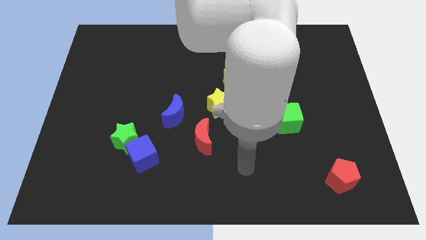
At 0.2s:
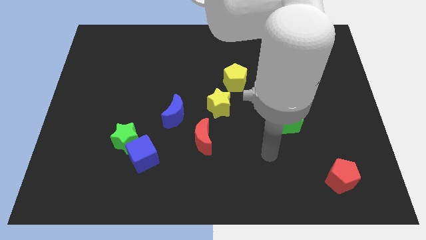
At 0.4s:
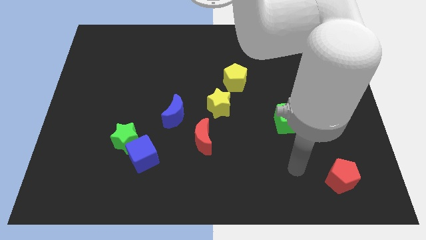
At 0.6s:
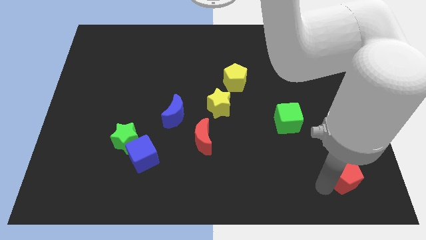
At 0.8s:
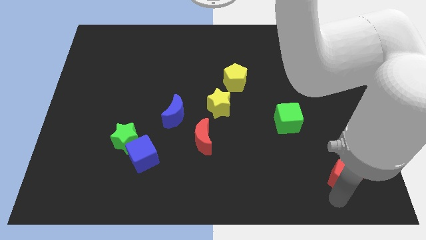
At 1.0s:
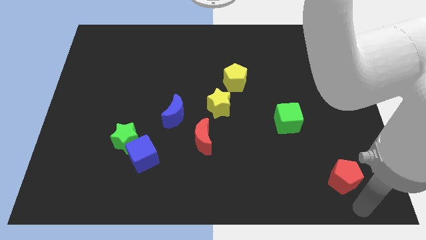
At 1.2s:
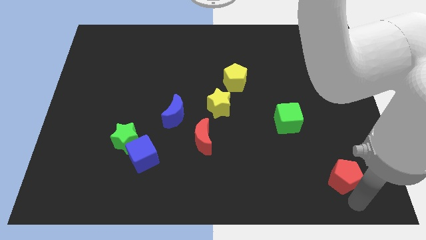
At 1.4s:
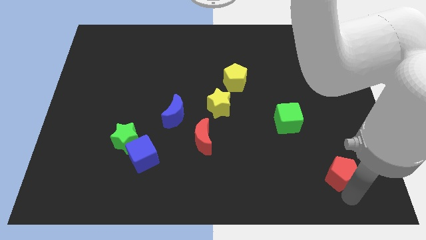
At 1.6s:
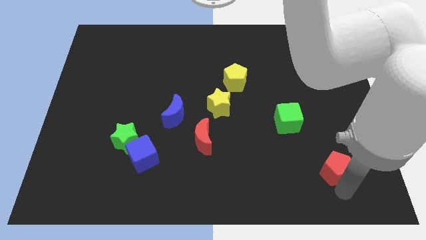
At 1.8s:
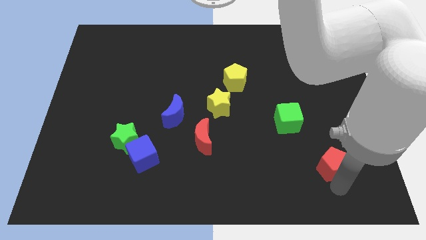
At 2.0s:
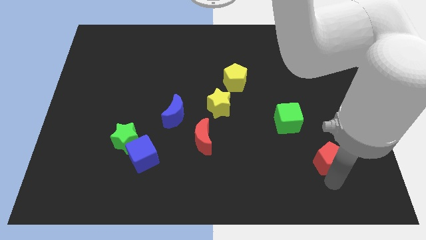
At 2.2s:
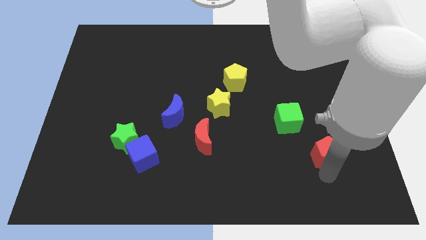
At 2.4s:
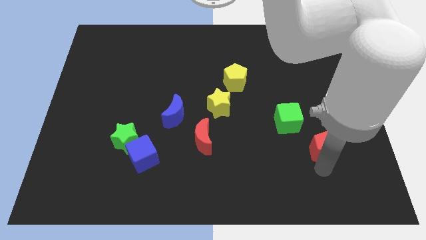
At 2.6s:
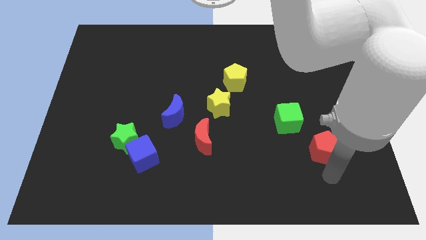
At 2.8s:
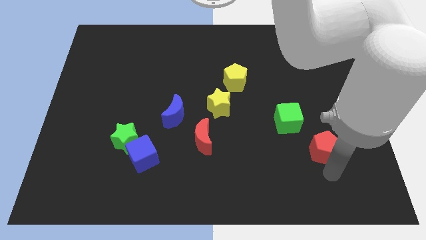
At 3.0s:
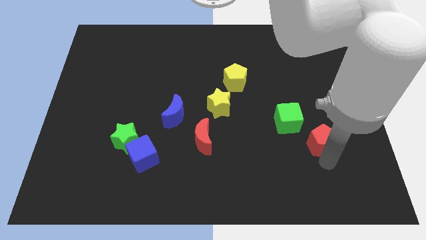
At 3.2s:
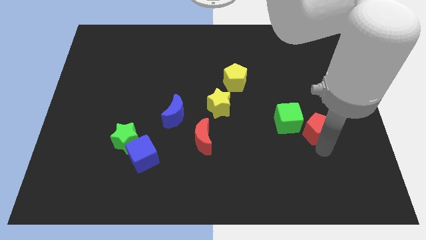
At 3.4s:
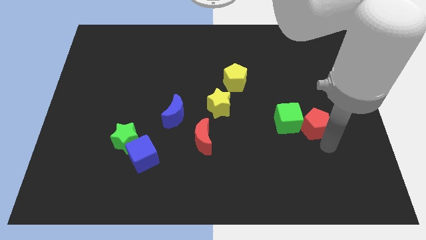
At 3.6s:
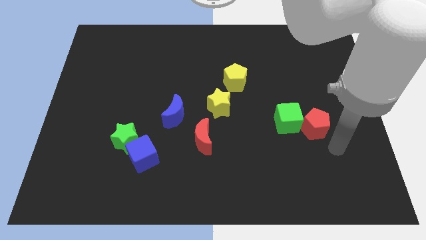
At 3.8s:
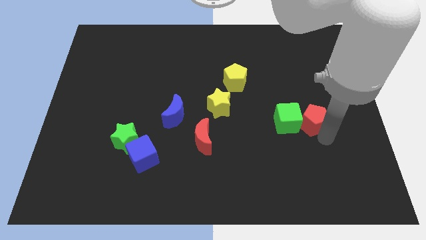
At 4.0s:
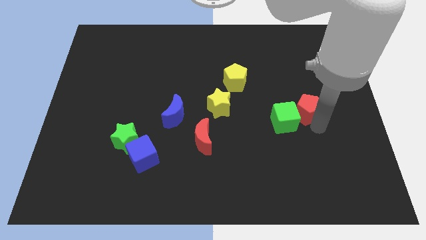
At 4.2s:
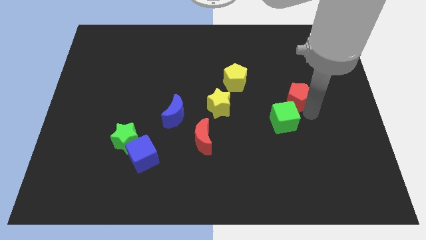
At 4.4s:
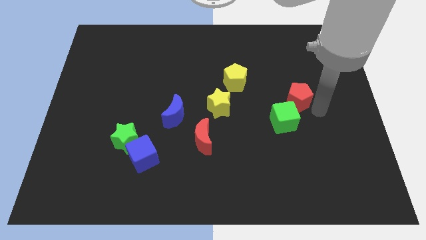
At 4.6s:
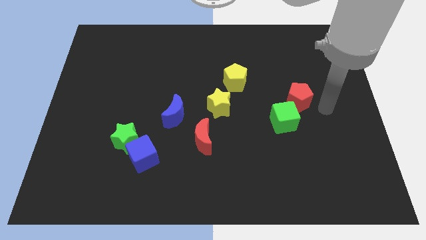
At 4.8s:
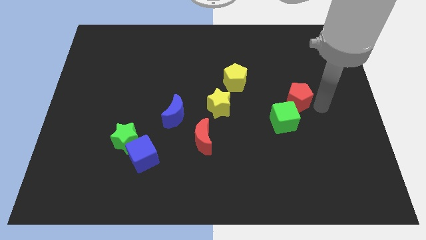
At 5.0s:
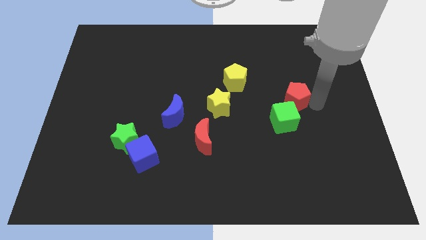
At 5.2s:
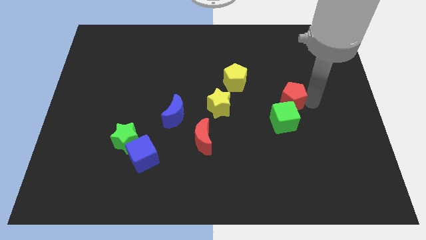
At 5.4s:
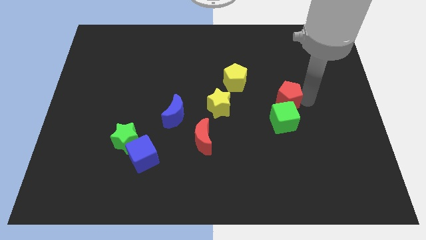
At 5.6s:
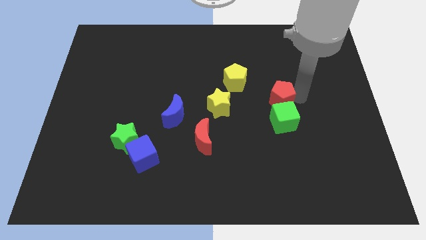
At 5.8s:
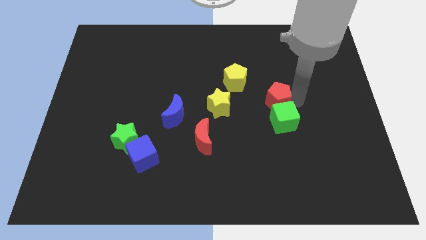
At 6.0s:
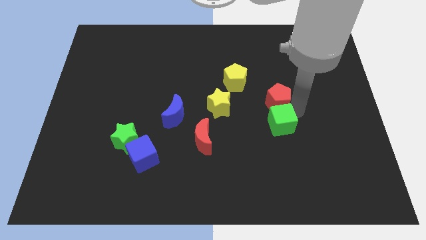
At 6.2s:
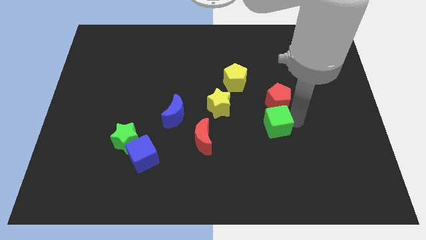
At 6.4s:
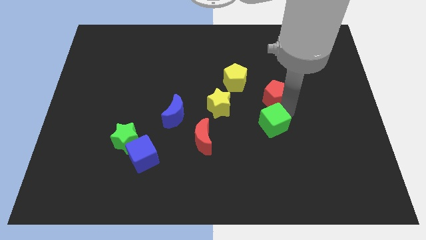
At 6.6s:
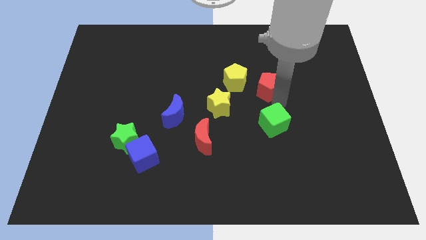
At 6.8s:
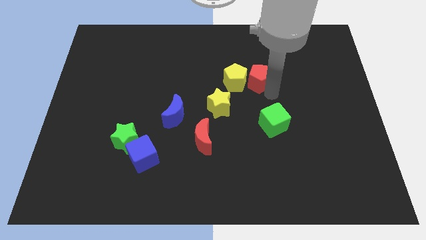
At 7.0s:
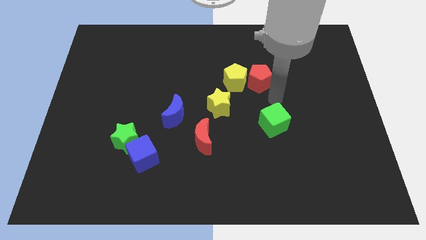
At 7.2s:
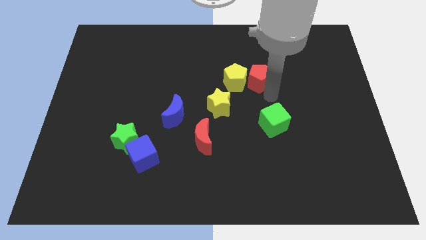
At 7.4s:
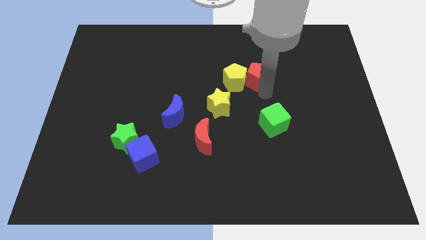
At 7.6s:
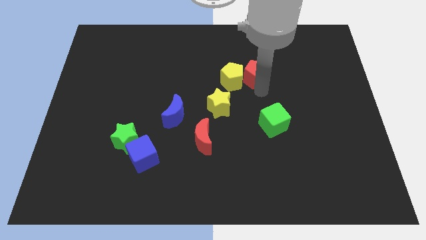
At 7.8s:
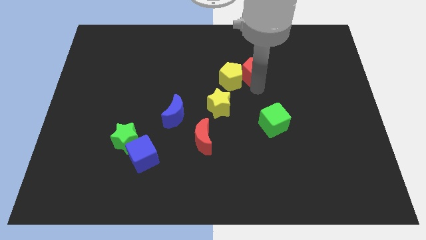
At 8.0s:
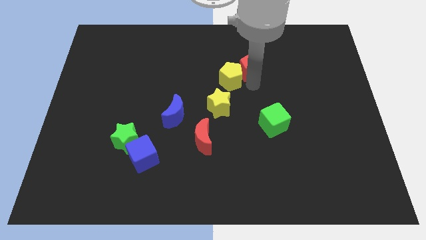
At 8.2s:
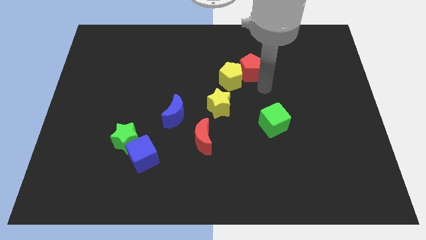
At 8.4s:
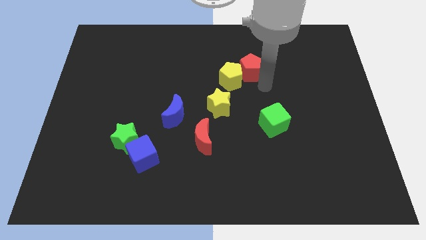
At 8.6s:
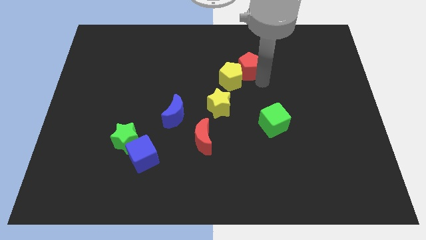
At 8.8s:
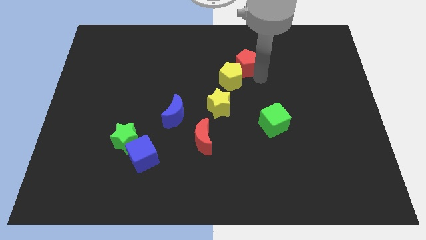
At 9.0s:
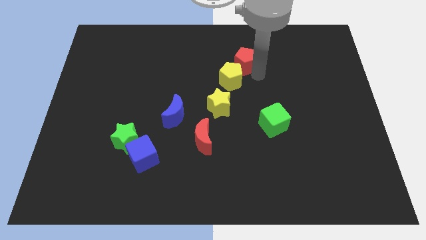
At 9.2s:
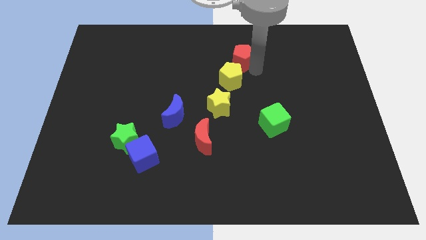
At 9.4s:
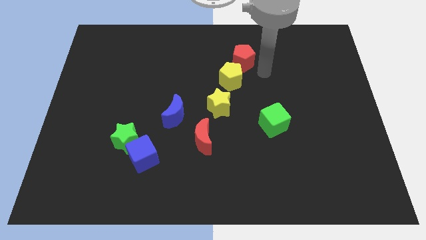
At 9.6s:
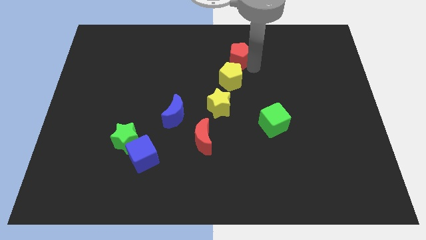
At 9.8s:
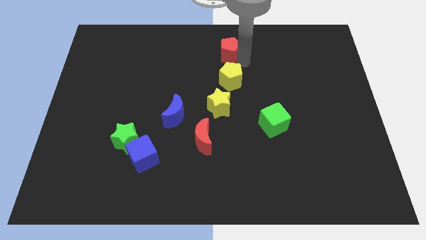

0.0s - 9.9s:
move the red pentagon to the top side

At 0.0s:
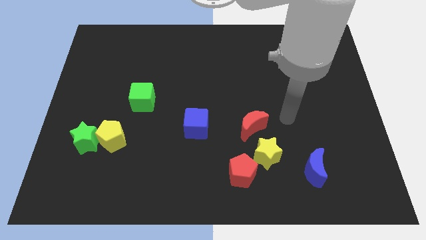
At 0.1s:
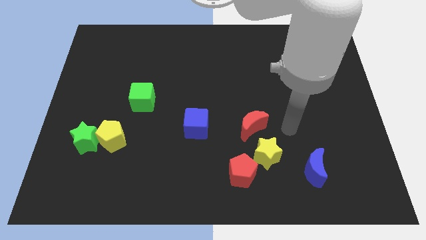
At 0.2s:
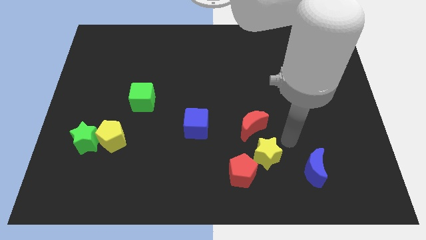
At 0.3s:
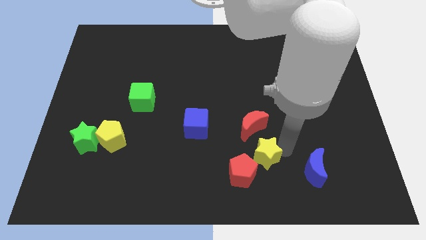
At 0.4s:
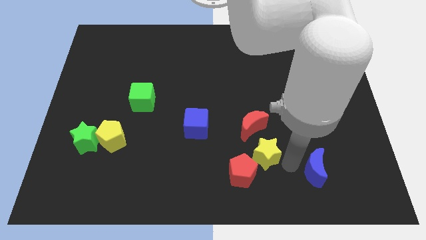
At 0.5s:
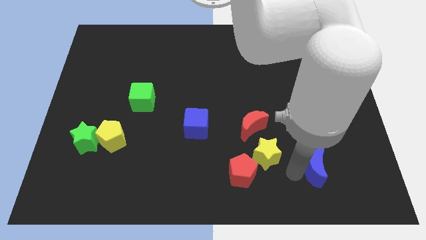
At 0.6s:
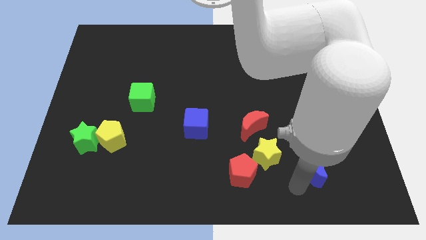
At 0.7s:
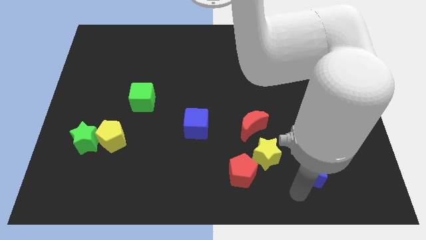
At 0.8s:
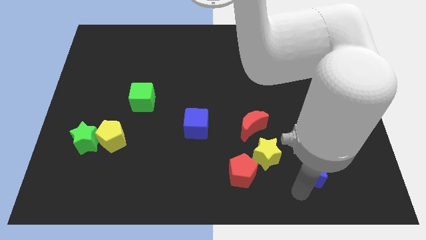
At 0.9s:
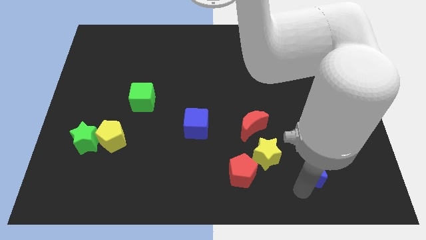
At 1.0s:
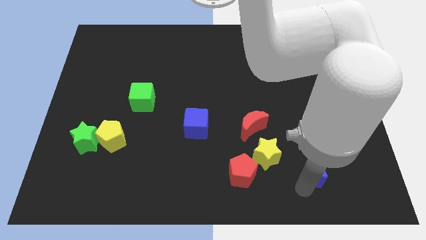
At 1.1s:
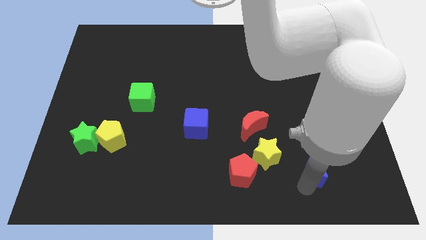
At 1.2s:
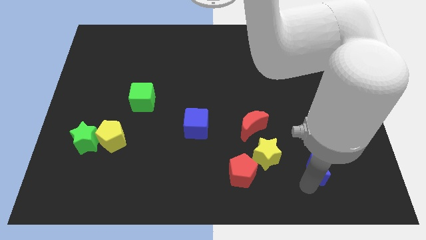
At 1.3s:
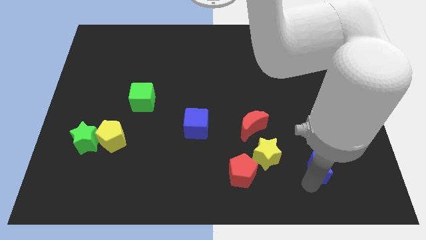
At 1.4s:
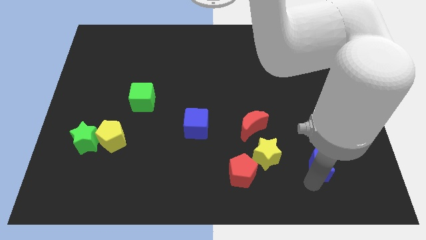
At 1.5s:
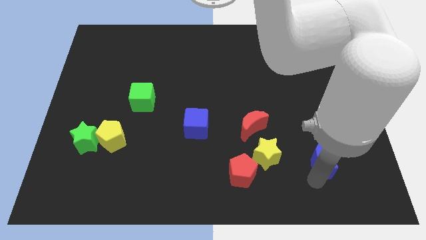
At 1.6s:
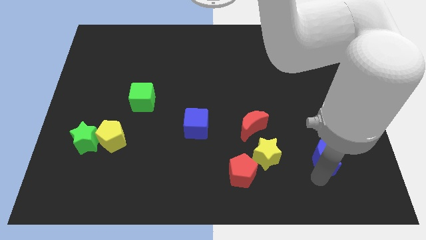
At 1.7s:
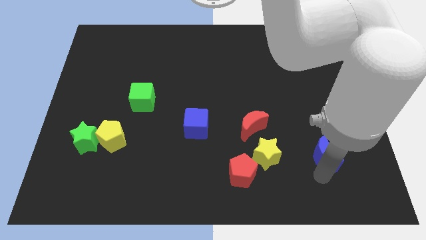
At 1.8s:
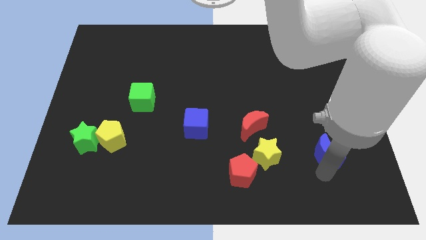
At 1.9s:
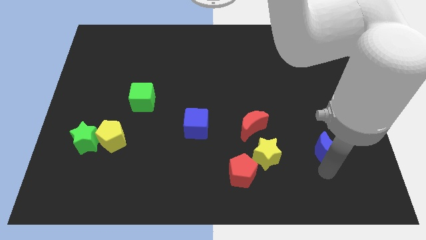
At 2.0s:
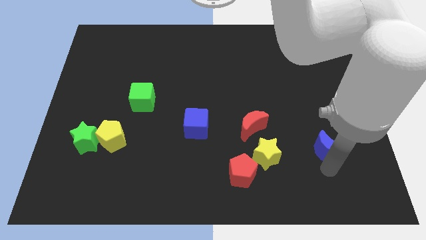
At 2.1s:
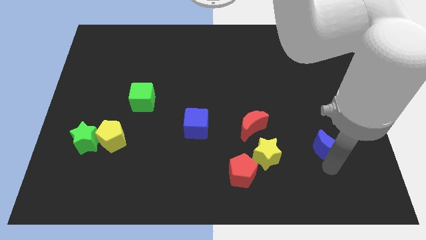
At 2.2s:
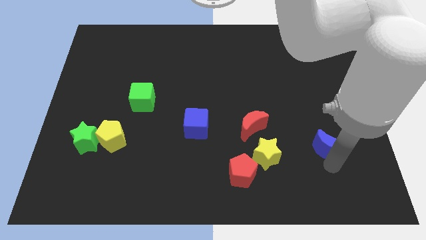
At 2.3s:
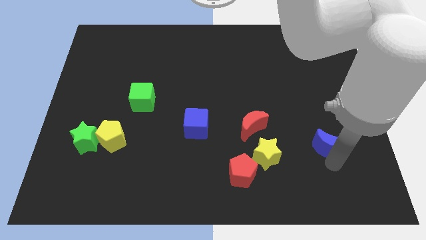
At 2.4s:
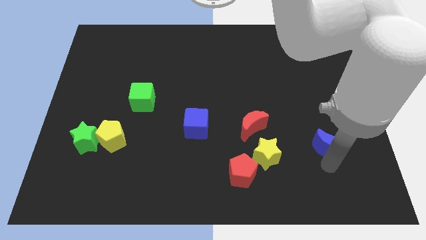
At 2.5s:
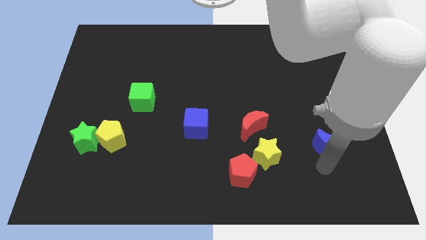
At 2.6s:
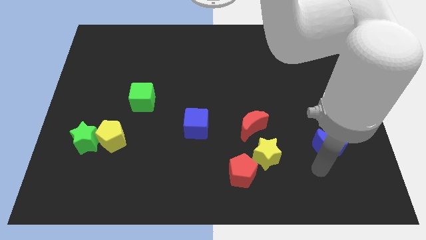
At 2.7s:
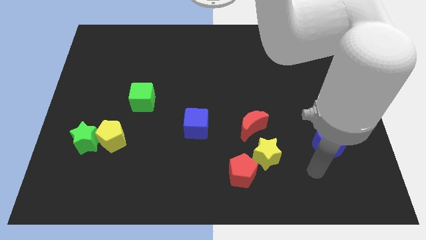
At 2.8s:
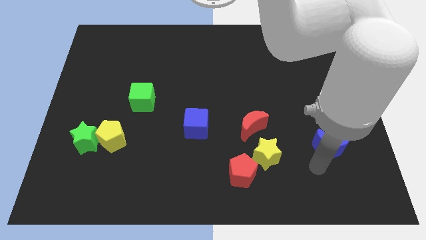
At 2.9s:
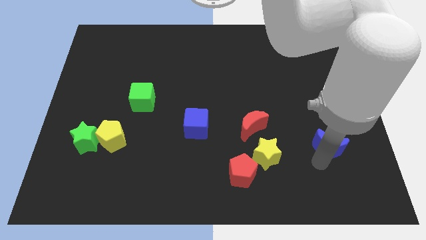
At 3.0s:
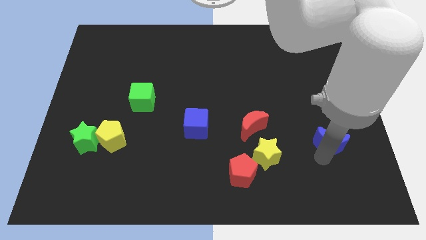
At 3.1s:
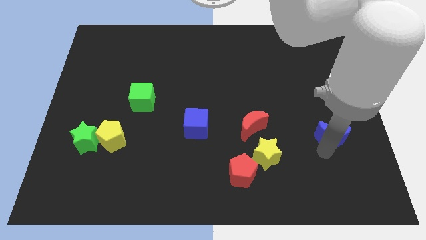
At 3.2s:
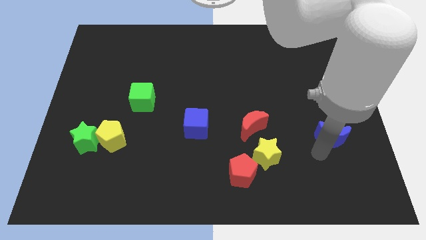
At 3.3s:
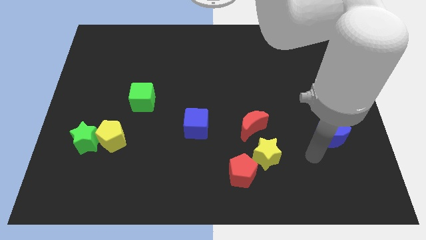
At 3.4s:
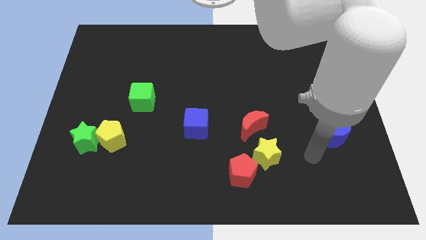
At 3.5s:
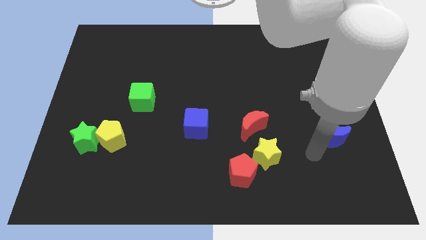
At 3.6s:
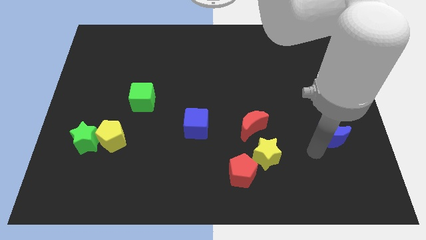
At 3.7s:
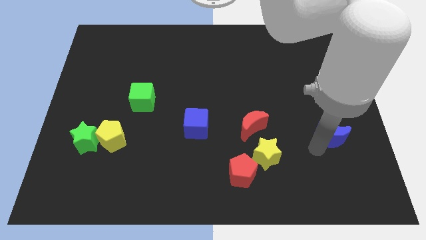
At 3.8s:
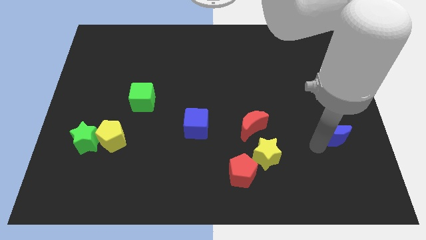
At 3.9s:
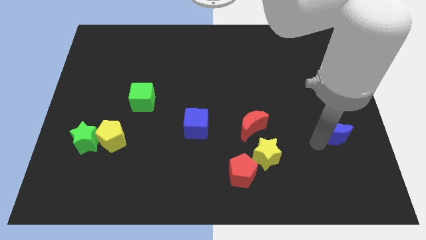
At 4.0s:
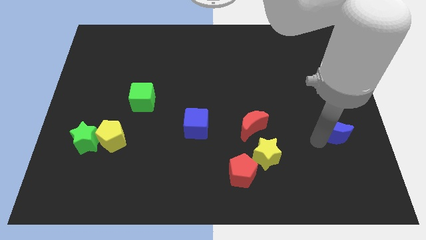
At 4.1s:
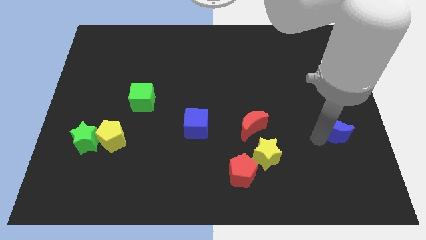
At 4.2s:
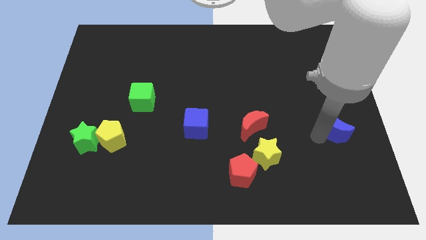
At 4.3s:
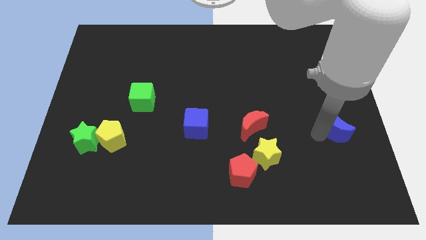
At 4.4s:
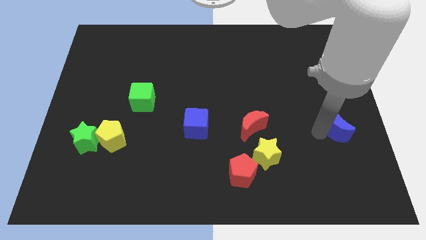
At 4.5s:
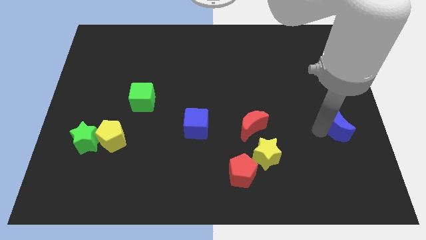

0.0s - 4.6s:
slide the blue moon to the right side of the board
